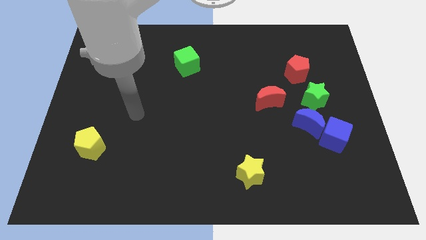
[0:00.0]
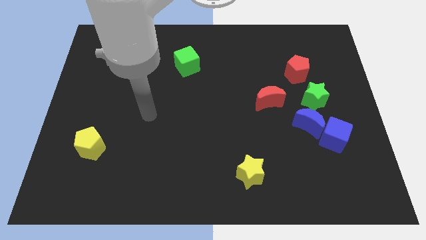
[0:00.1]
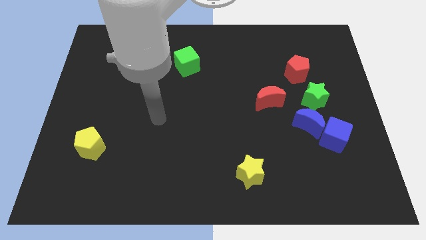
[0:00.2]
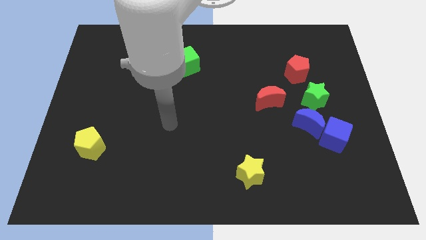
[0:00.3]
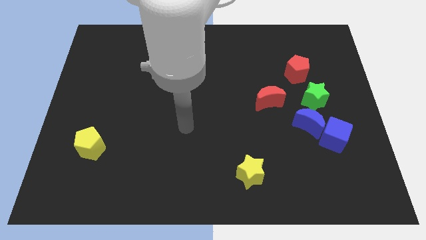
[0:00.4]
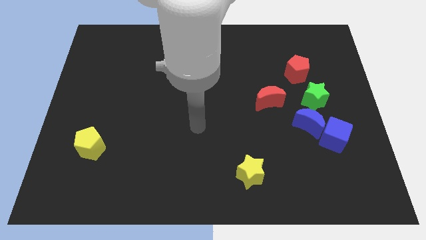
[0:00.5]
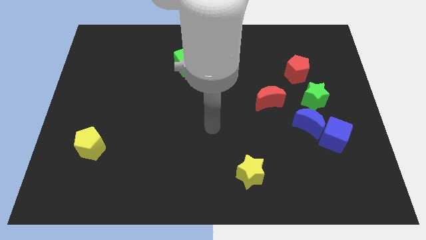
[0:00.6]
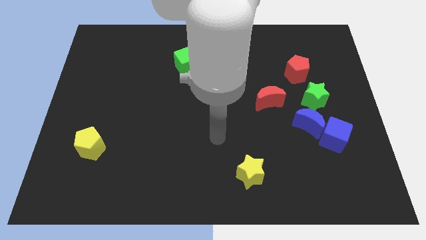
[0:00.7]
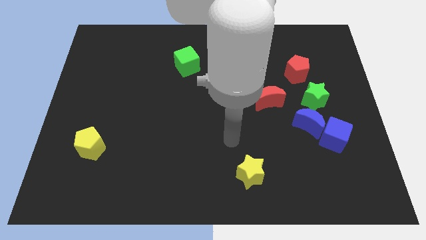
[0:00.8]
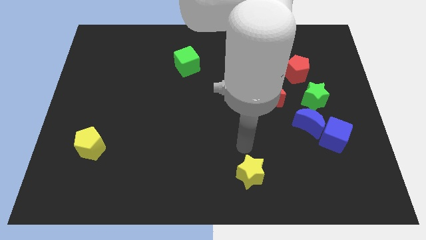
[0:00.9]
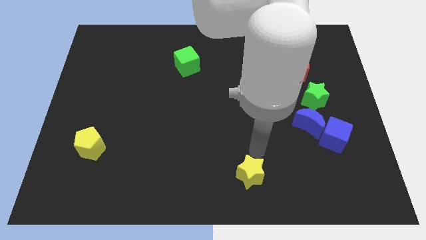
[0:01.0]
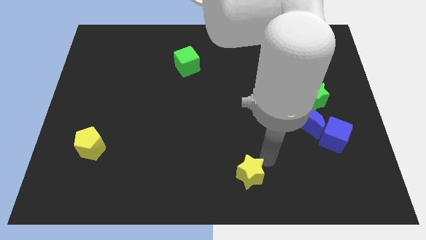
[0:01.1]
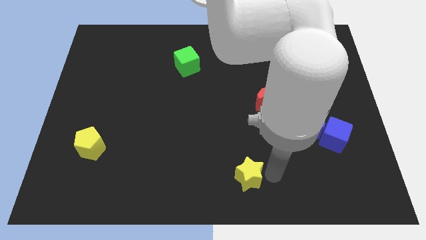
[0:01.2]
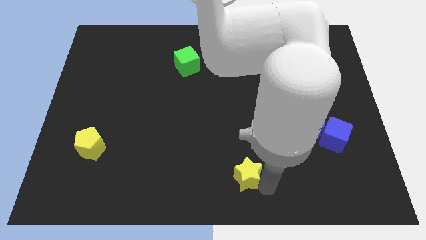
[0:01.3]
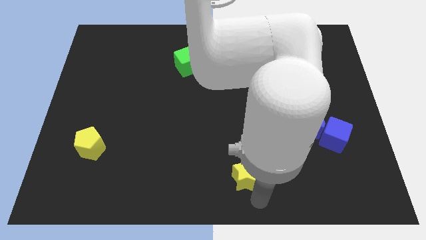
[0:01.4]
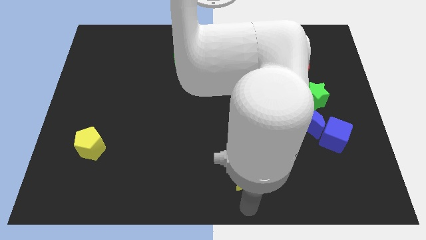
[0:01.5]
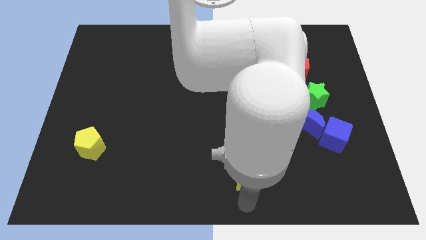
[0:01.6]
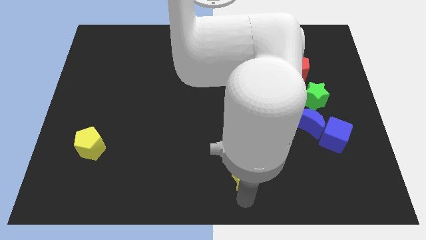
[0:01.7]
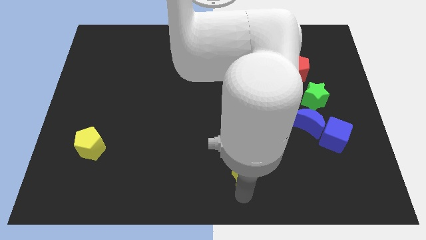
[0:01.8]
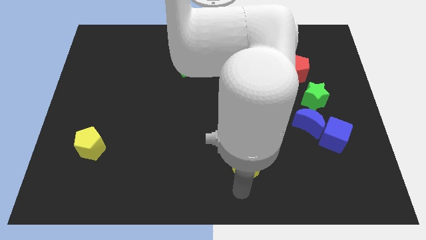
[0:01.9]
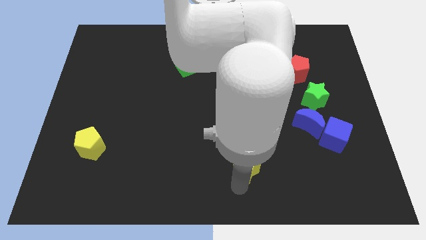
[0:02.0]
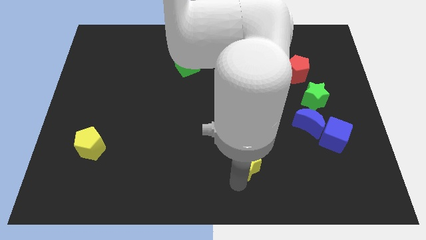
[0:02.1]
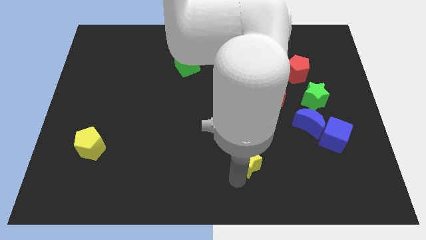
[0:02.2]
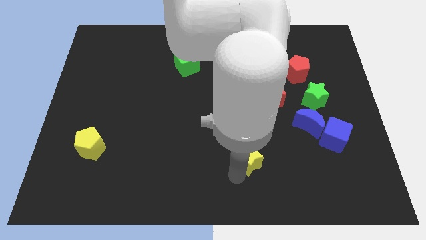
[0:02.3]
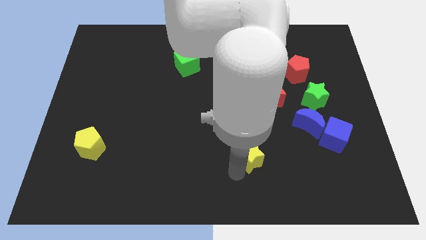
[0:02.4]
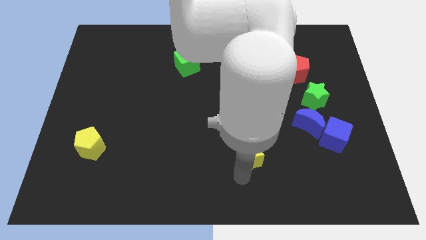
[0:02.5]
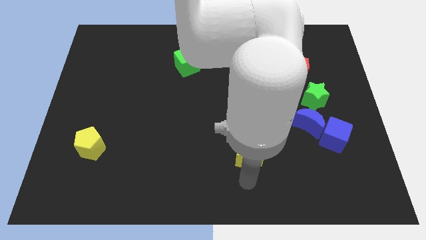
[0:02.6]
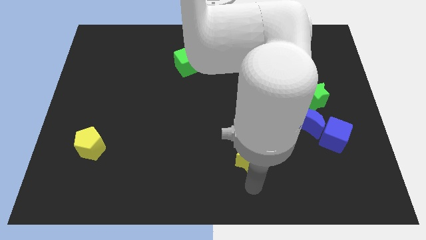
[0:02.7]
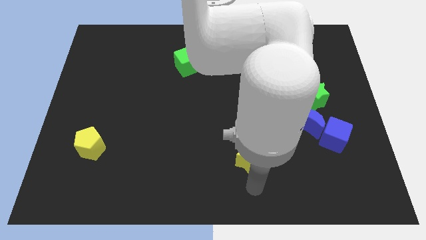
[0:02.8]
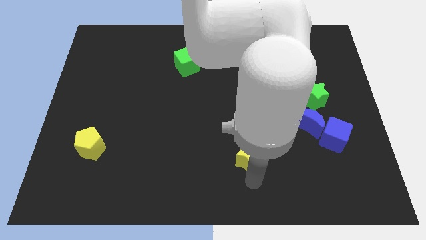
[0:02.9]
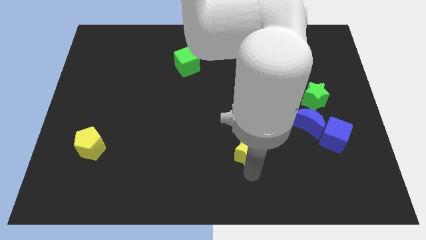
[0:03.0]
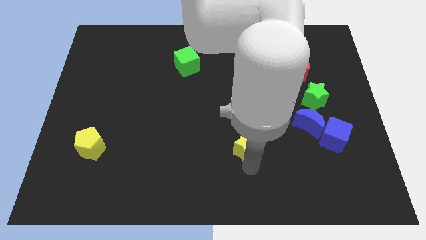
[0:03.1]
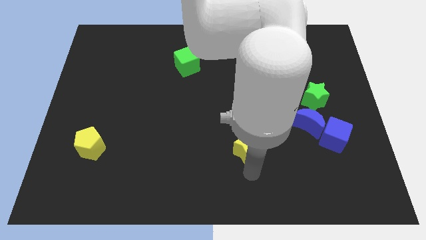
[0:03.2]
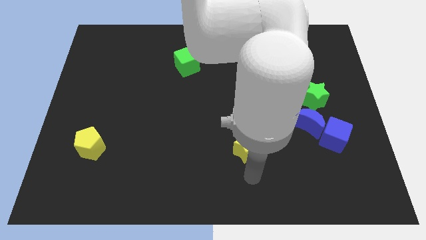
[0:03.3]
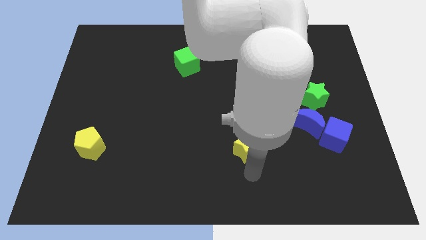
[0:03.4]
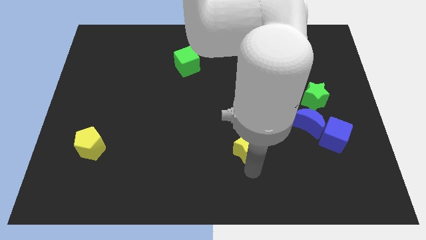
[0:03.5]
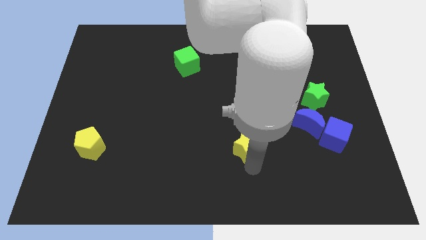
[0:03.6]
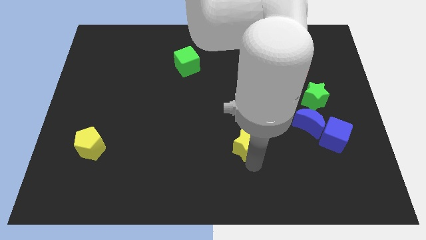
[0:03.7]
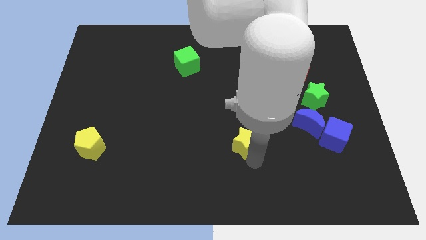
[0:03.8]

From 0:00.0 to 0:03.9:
move the yellow star up a little bit

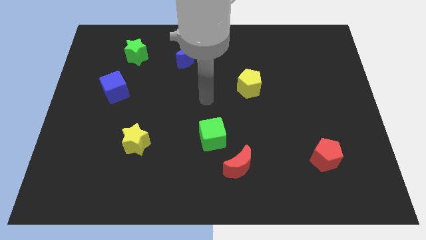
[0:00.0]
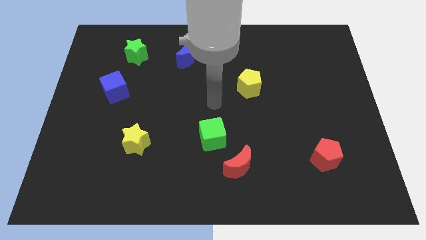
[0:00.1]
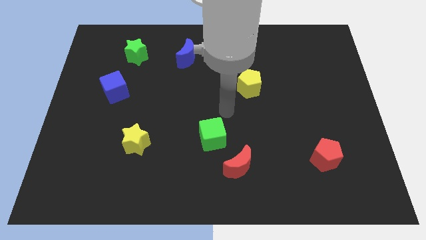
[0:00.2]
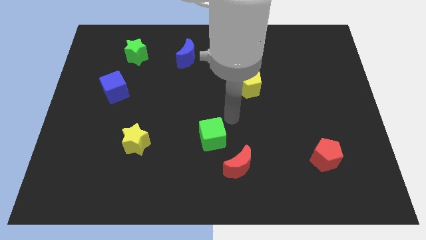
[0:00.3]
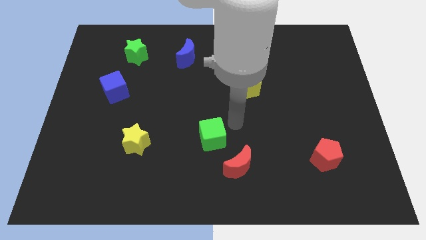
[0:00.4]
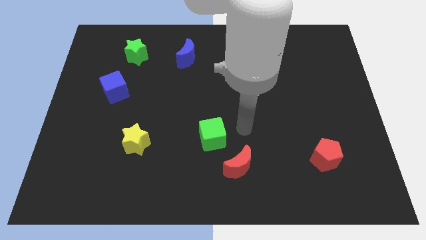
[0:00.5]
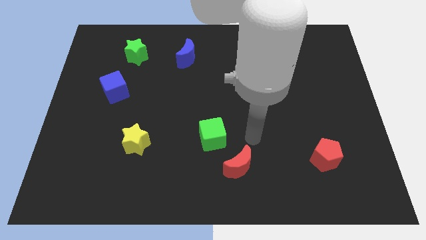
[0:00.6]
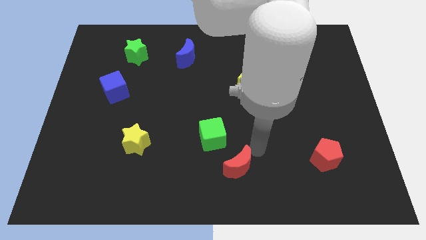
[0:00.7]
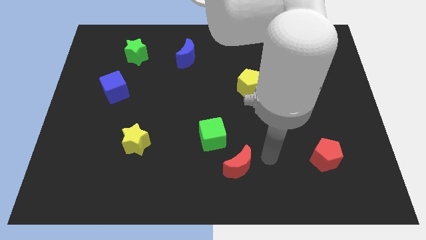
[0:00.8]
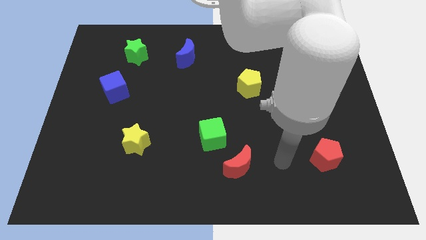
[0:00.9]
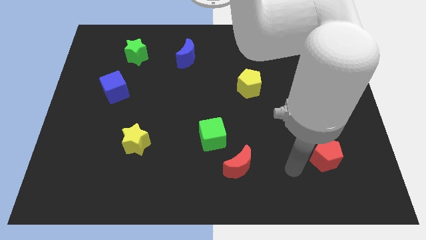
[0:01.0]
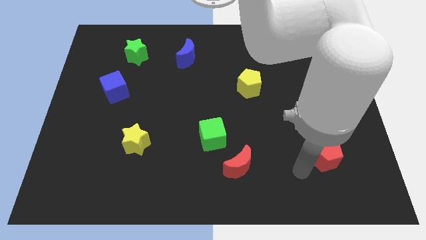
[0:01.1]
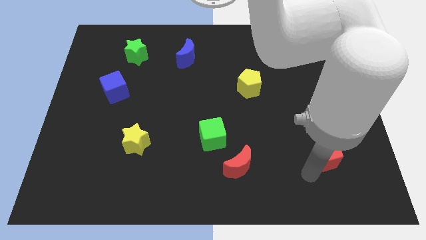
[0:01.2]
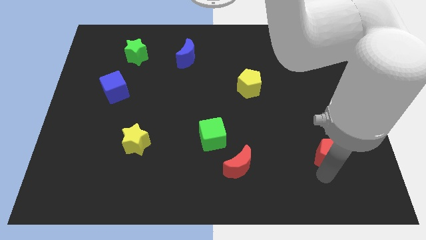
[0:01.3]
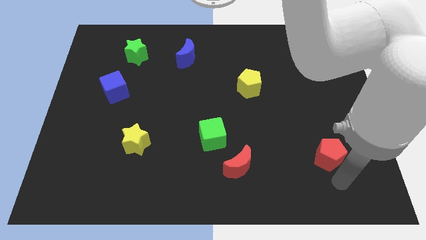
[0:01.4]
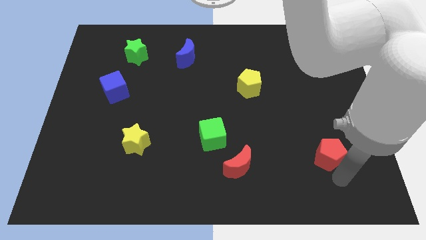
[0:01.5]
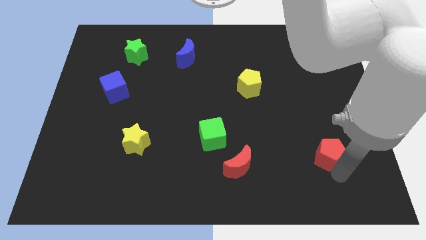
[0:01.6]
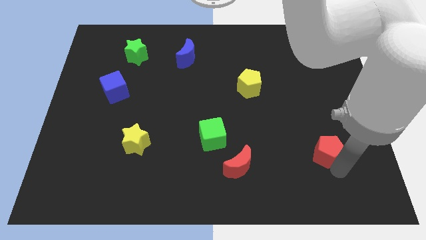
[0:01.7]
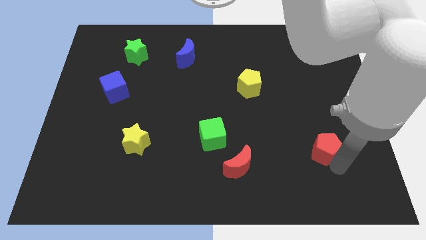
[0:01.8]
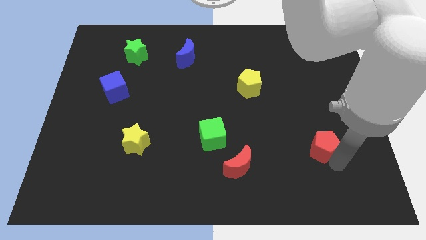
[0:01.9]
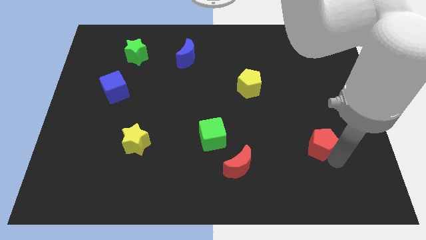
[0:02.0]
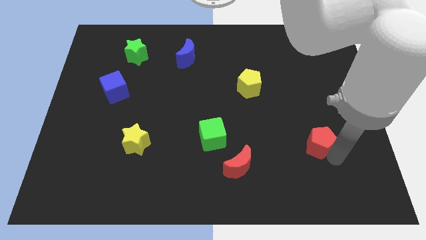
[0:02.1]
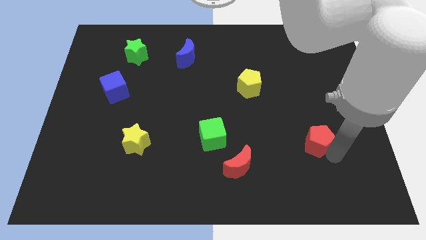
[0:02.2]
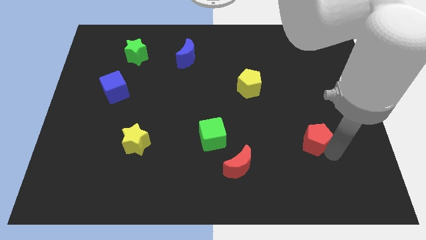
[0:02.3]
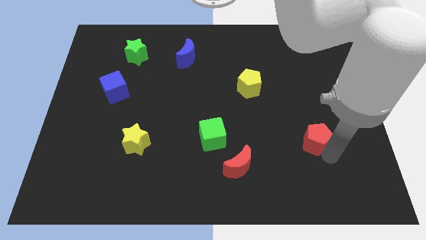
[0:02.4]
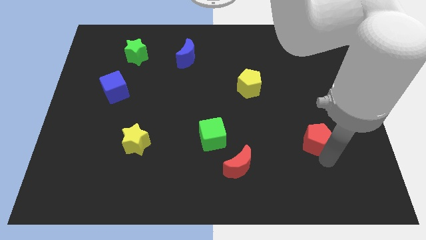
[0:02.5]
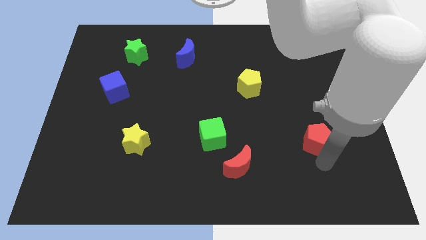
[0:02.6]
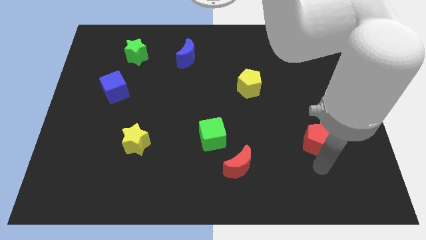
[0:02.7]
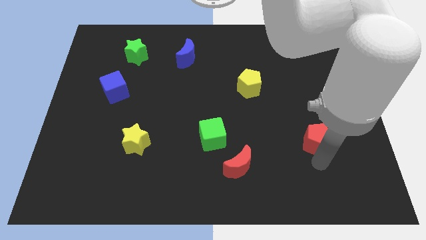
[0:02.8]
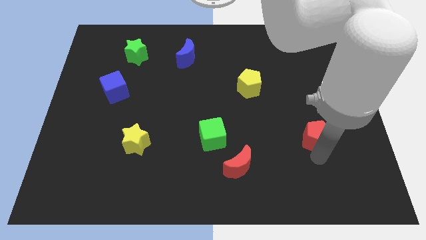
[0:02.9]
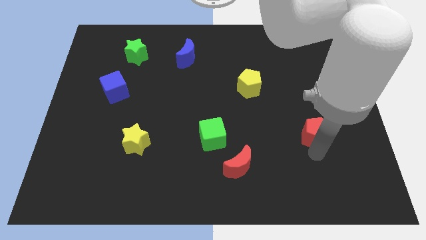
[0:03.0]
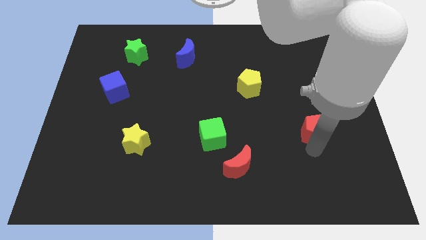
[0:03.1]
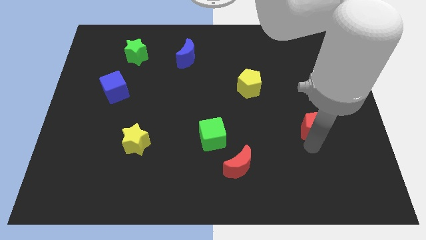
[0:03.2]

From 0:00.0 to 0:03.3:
slightly slide the red pentagon upwards

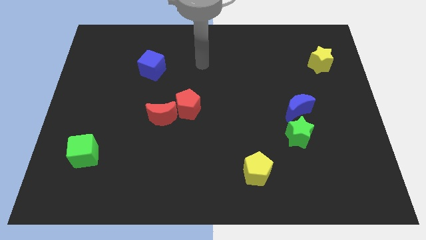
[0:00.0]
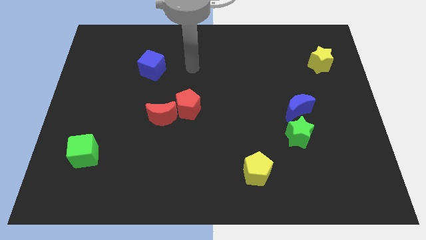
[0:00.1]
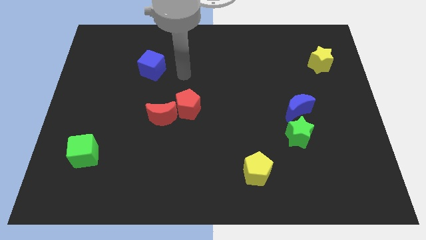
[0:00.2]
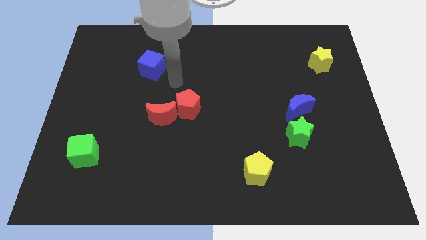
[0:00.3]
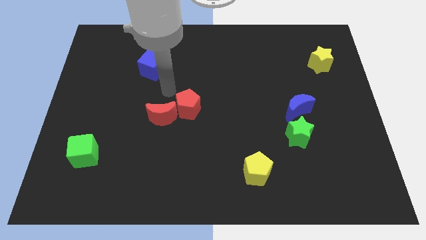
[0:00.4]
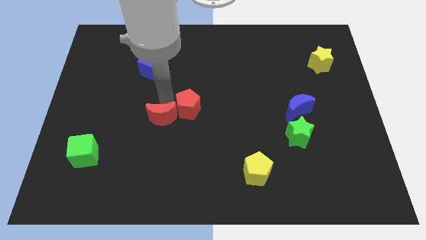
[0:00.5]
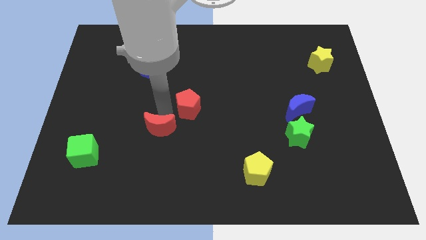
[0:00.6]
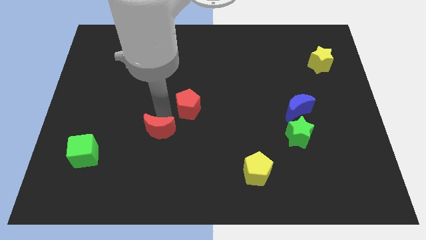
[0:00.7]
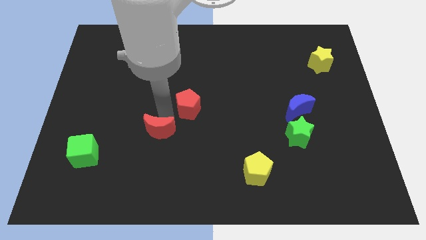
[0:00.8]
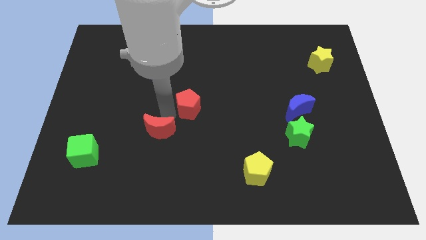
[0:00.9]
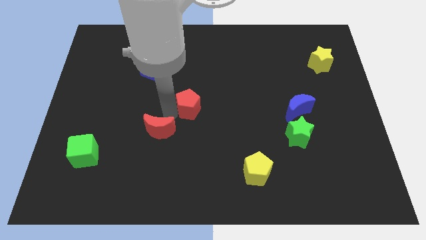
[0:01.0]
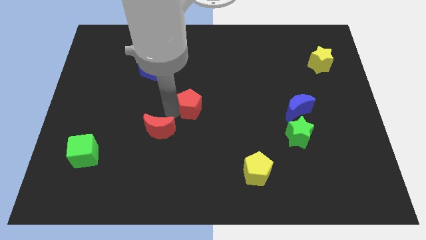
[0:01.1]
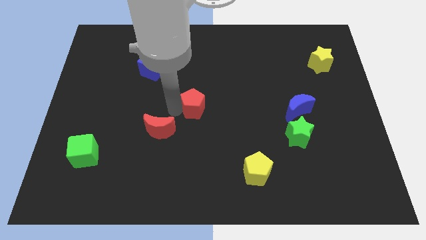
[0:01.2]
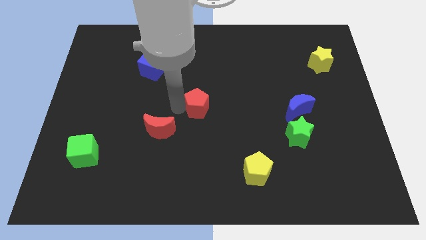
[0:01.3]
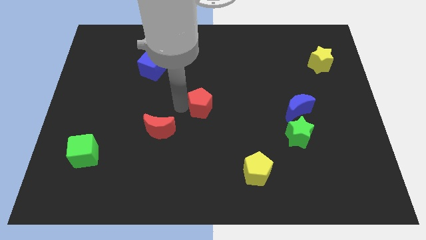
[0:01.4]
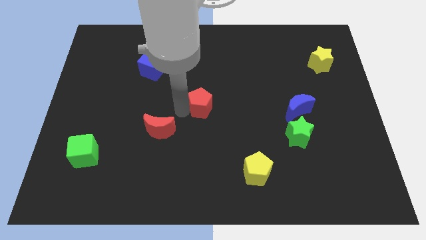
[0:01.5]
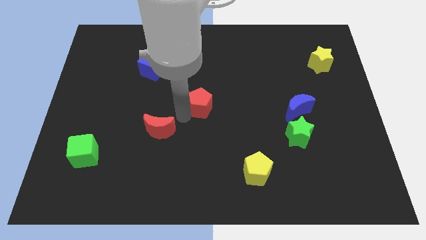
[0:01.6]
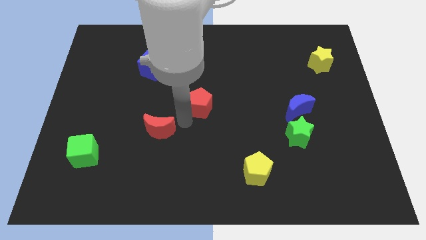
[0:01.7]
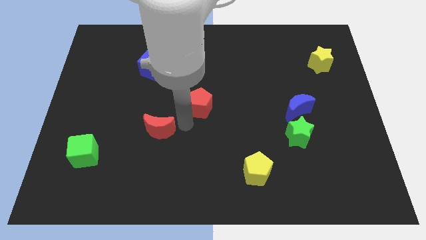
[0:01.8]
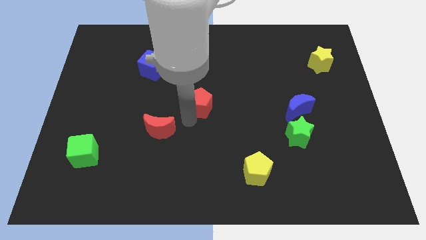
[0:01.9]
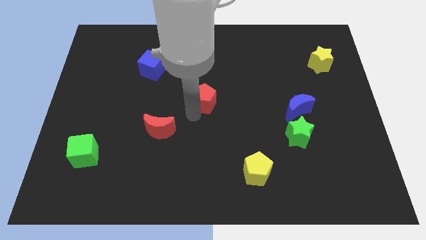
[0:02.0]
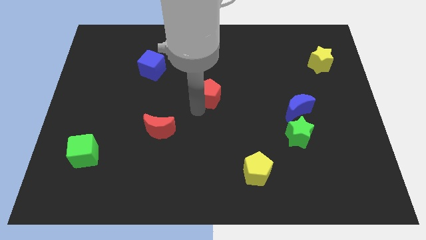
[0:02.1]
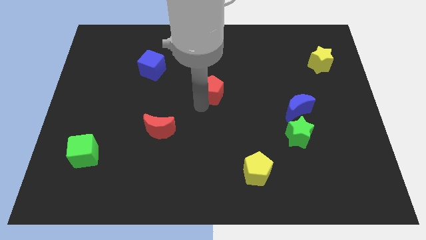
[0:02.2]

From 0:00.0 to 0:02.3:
slightly push the red pentagon diagonally up and right
